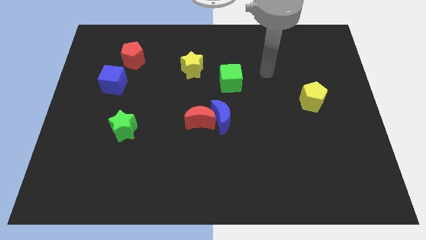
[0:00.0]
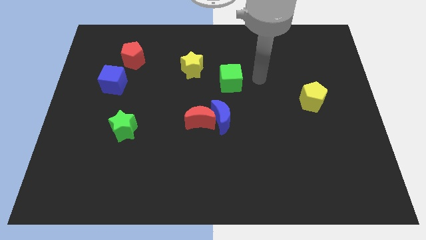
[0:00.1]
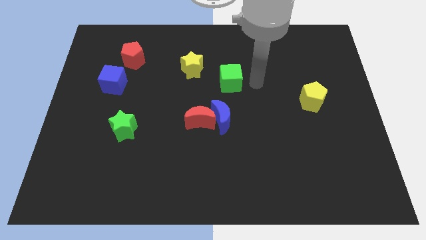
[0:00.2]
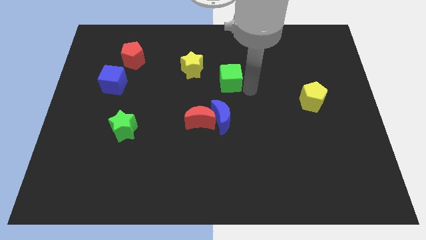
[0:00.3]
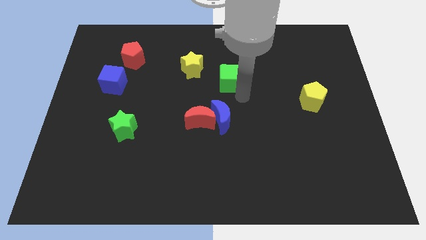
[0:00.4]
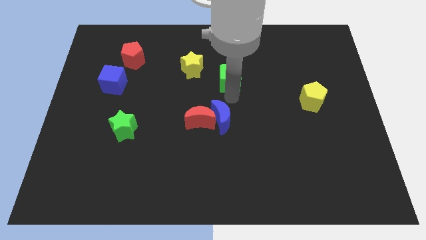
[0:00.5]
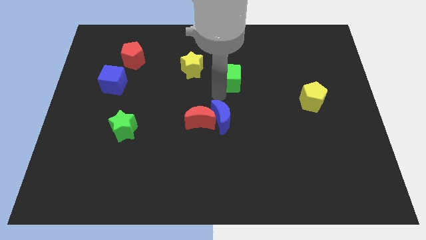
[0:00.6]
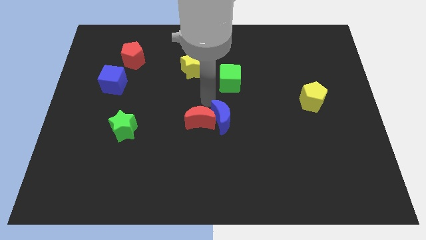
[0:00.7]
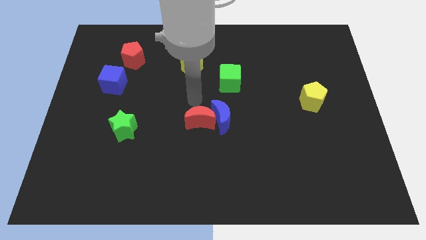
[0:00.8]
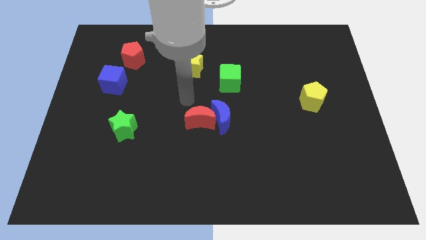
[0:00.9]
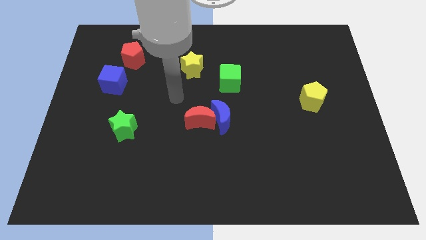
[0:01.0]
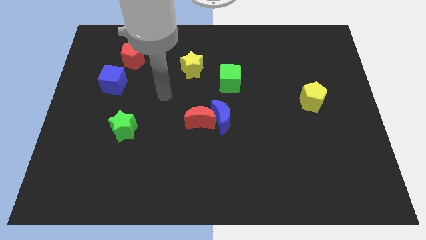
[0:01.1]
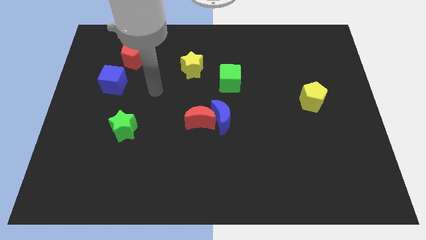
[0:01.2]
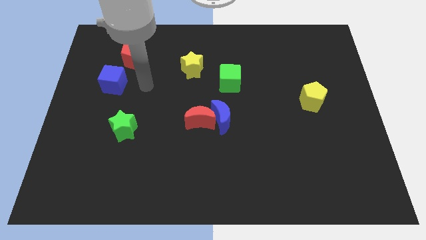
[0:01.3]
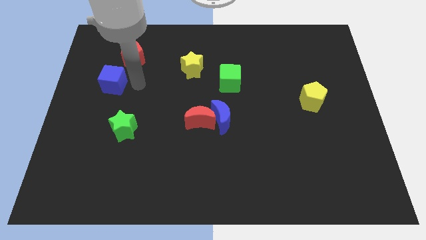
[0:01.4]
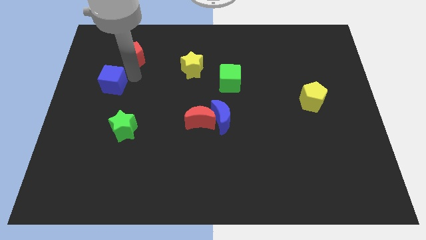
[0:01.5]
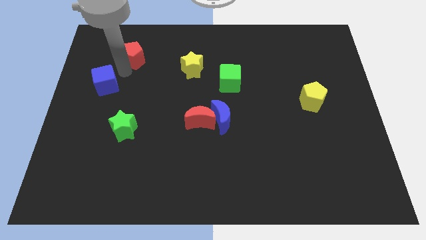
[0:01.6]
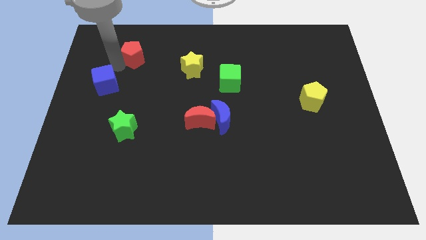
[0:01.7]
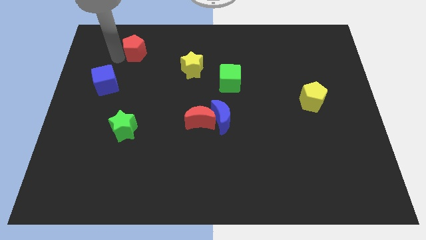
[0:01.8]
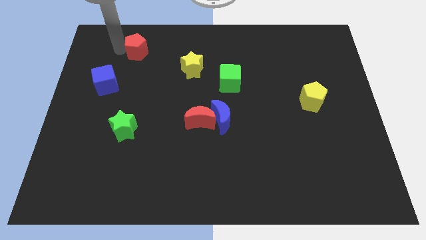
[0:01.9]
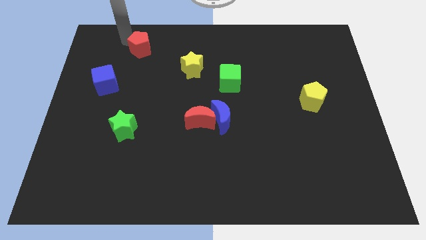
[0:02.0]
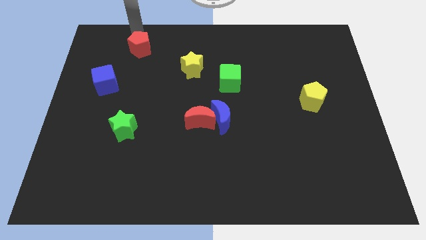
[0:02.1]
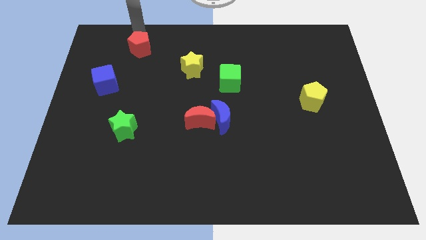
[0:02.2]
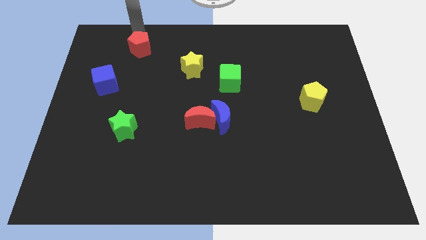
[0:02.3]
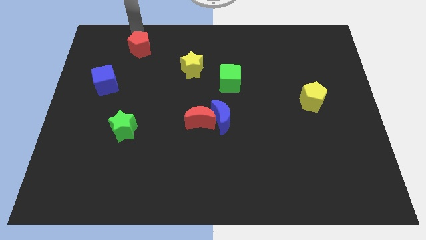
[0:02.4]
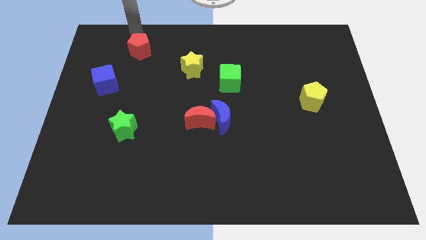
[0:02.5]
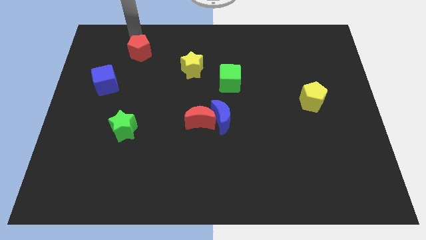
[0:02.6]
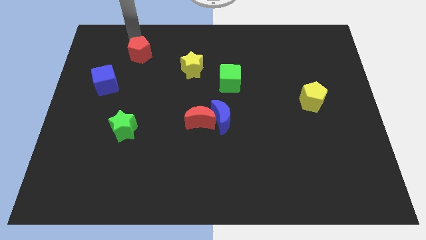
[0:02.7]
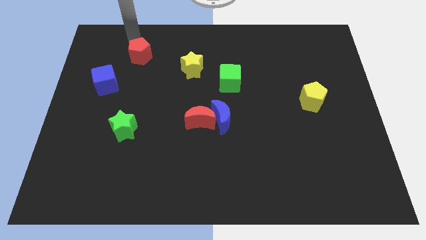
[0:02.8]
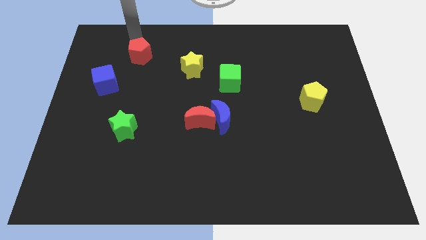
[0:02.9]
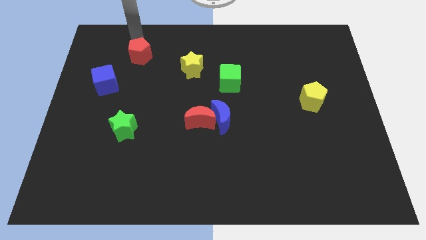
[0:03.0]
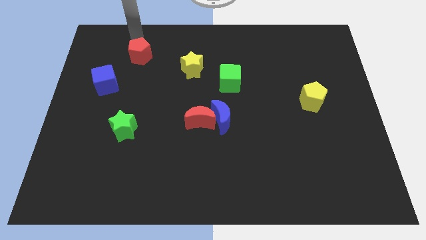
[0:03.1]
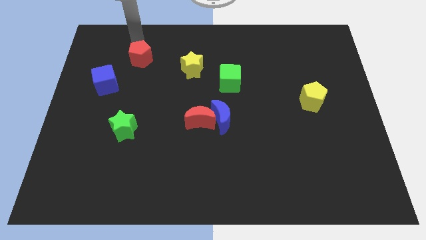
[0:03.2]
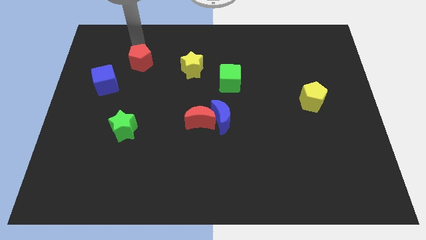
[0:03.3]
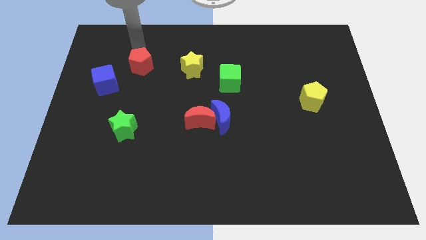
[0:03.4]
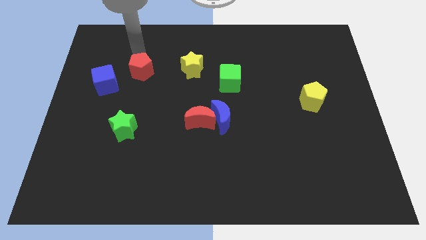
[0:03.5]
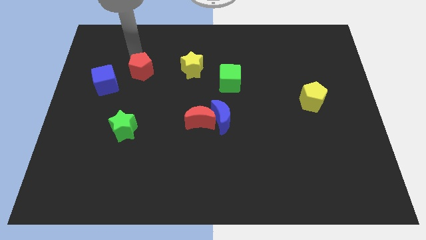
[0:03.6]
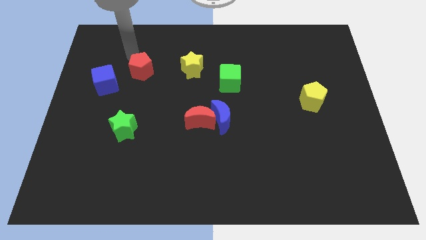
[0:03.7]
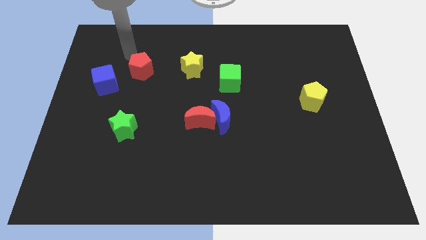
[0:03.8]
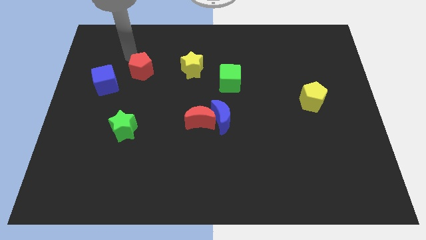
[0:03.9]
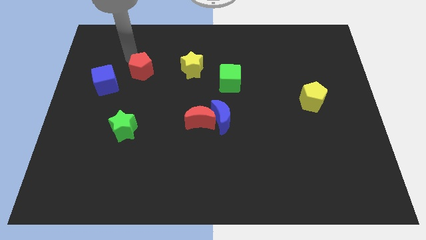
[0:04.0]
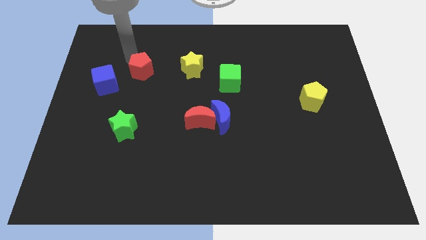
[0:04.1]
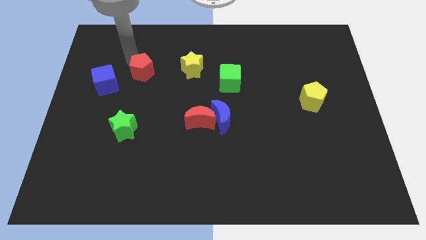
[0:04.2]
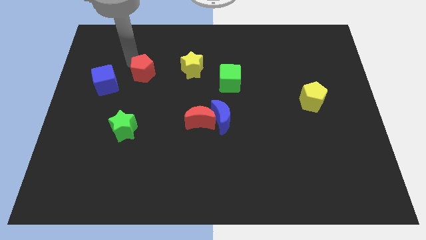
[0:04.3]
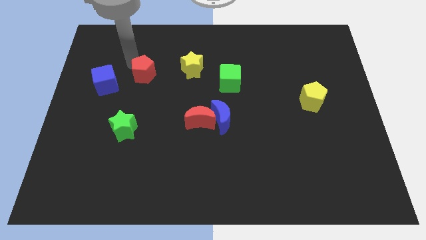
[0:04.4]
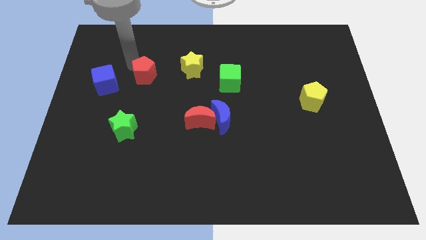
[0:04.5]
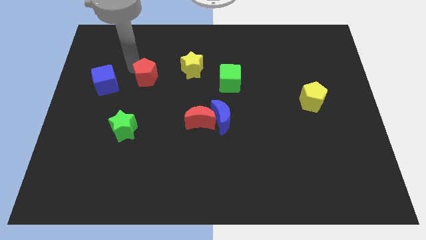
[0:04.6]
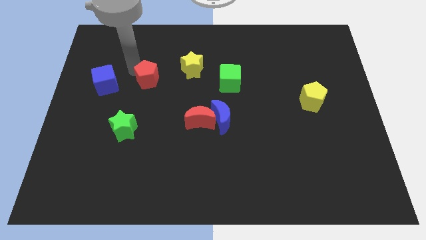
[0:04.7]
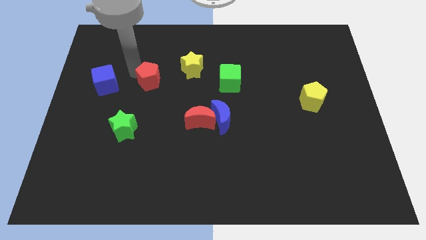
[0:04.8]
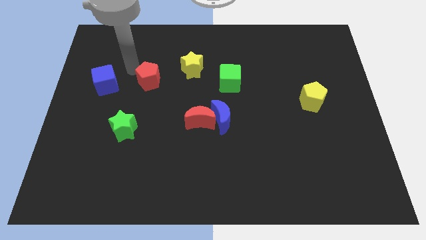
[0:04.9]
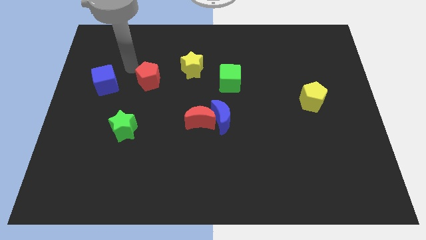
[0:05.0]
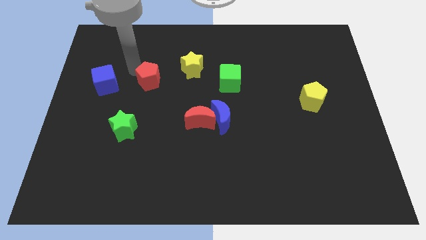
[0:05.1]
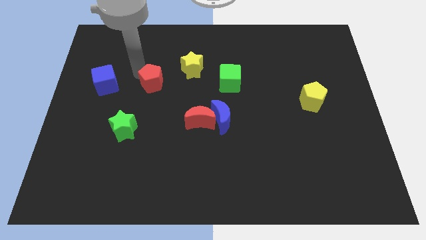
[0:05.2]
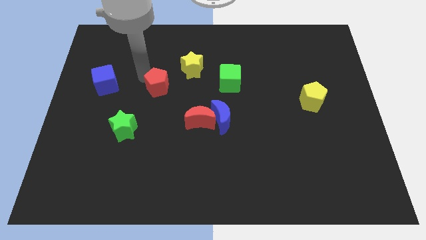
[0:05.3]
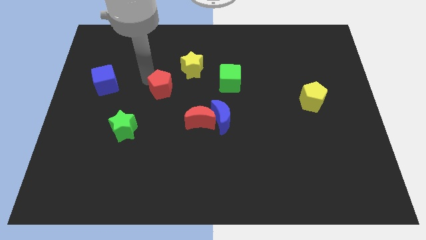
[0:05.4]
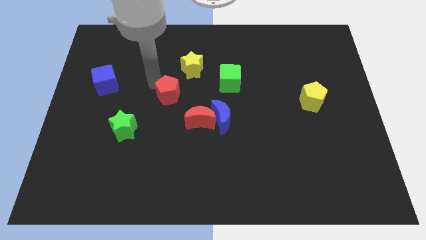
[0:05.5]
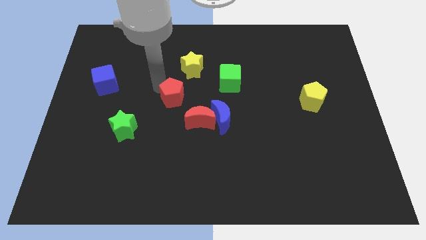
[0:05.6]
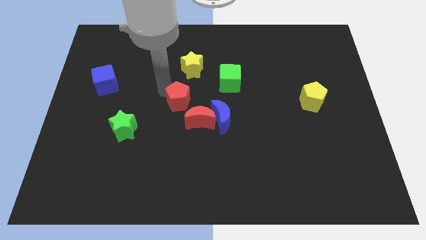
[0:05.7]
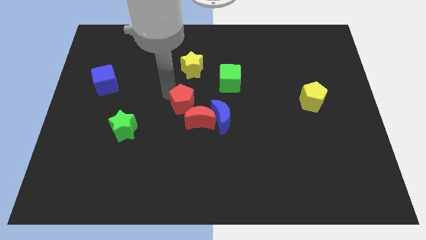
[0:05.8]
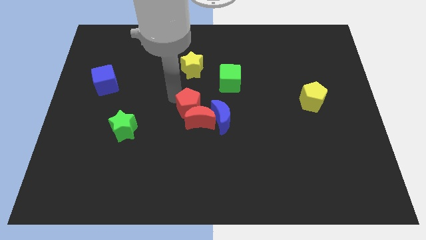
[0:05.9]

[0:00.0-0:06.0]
put the red pentagon to the red moon

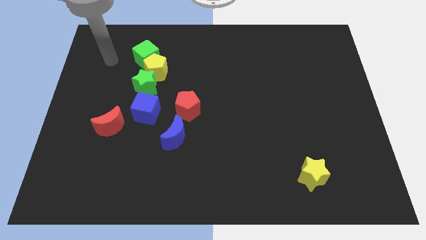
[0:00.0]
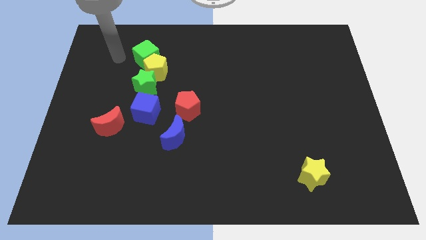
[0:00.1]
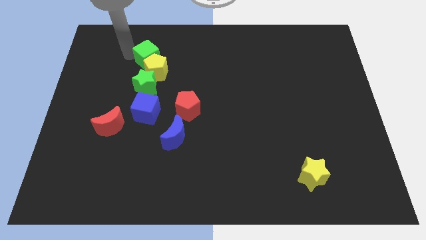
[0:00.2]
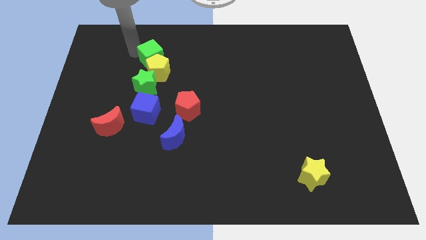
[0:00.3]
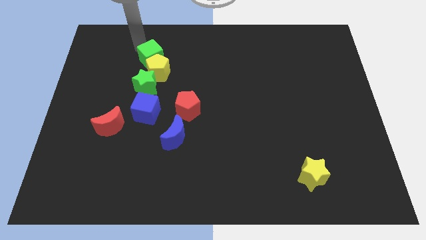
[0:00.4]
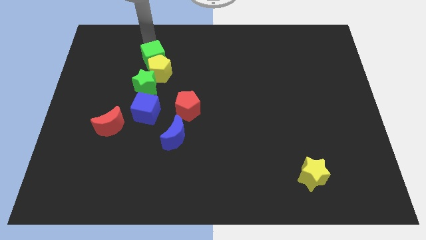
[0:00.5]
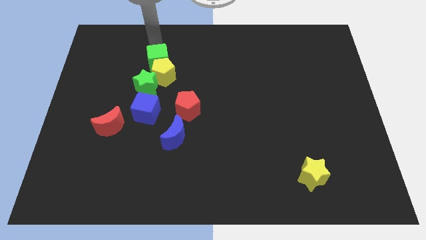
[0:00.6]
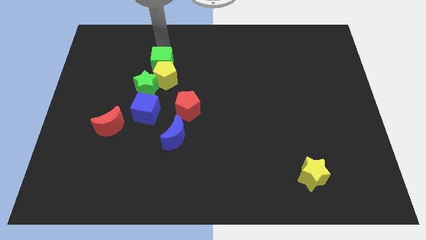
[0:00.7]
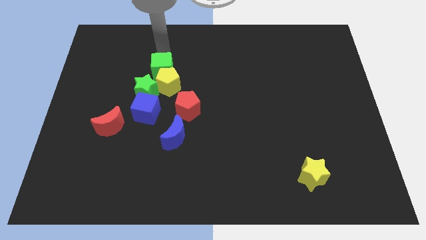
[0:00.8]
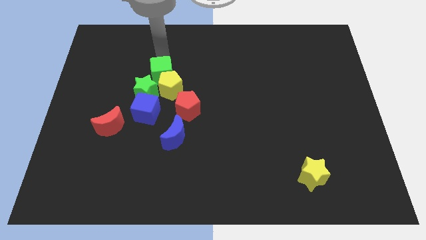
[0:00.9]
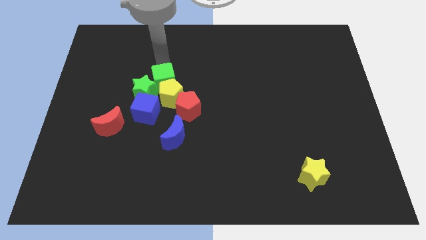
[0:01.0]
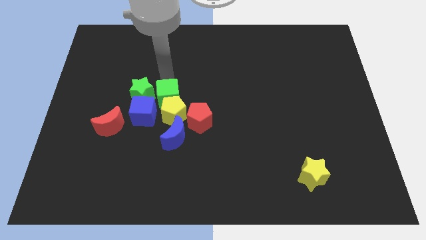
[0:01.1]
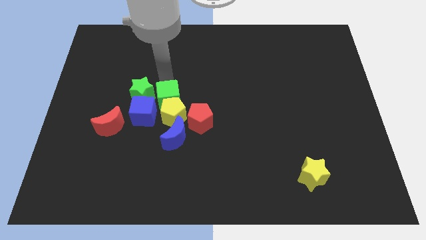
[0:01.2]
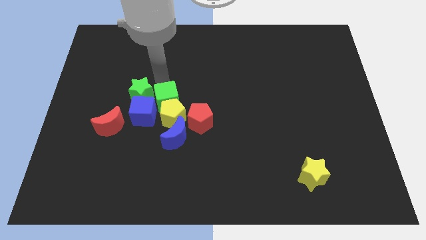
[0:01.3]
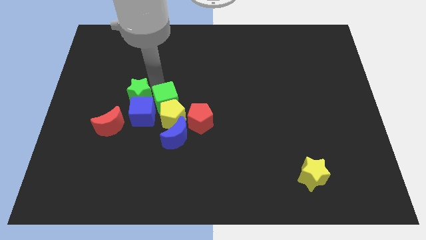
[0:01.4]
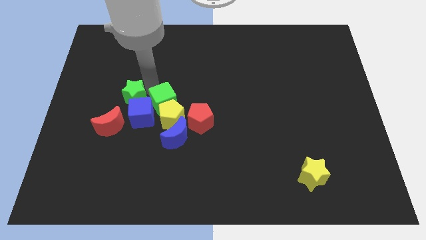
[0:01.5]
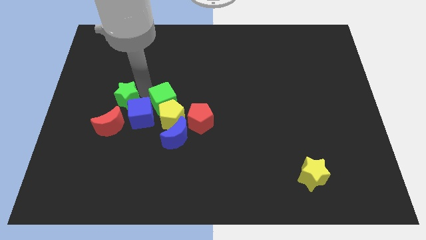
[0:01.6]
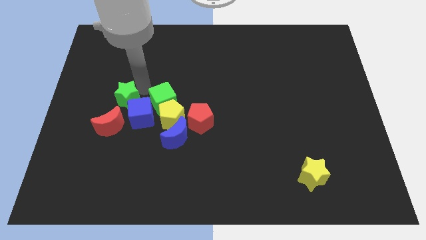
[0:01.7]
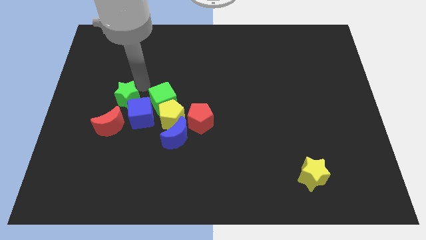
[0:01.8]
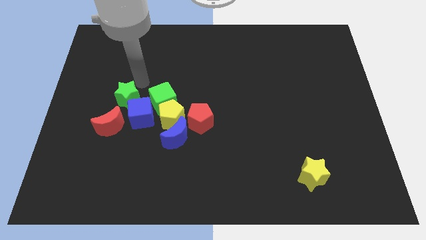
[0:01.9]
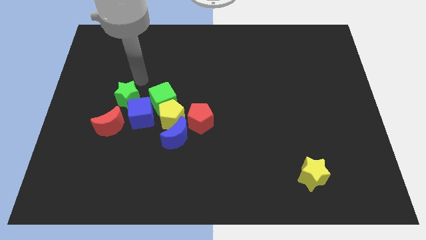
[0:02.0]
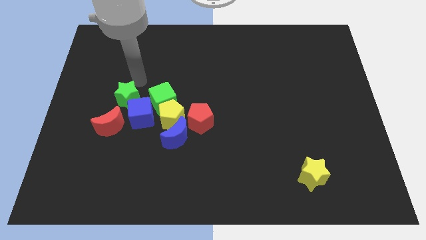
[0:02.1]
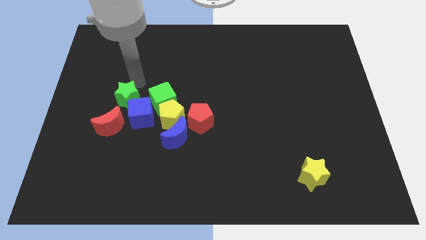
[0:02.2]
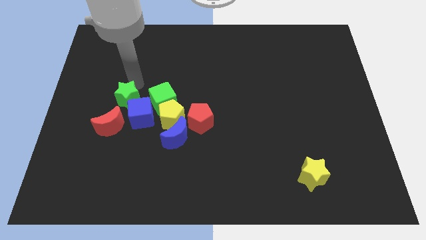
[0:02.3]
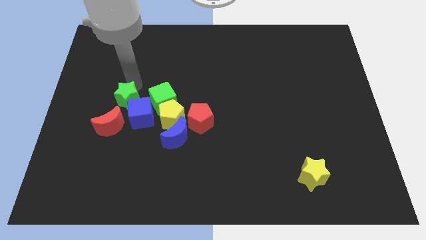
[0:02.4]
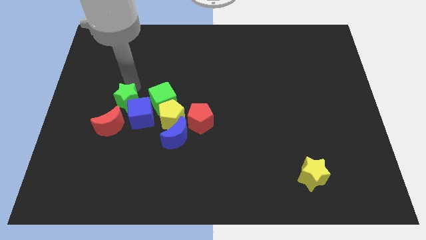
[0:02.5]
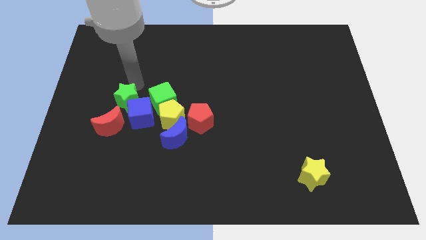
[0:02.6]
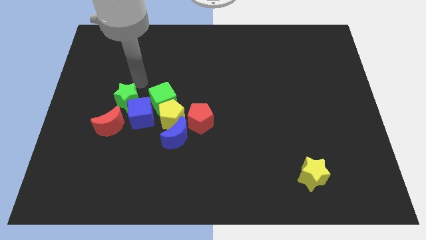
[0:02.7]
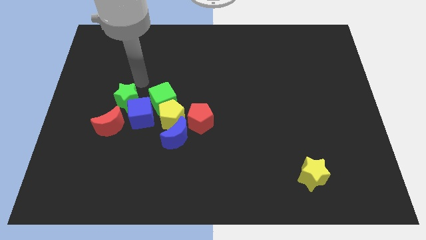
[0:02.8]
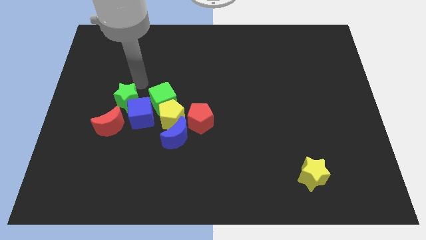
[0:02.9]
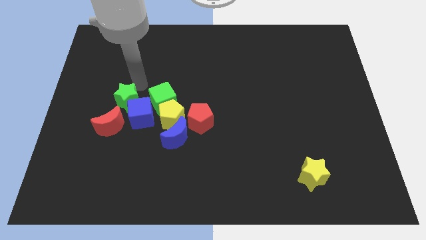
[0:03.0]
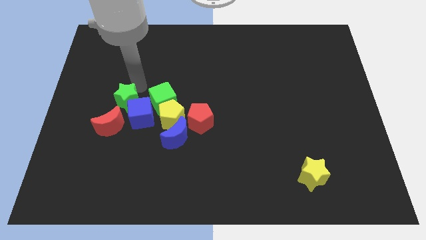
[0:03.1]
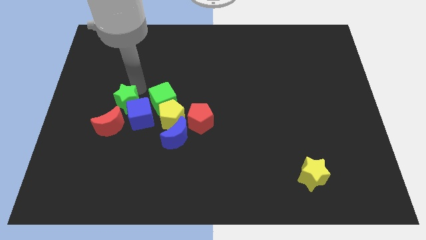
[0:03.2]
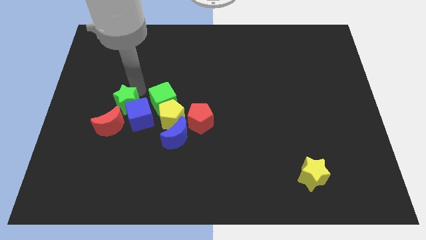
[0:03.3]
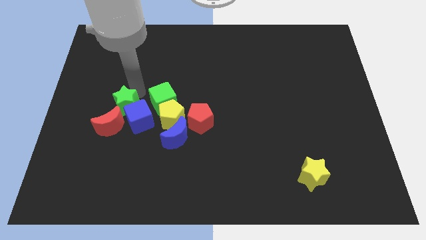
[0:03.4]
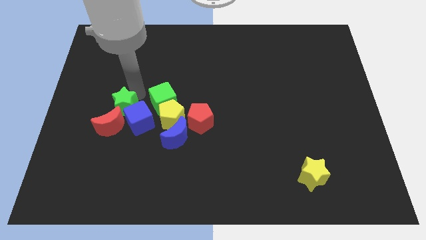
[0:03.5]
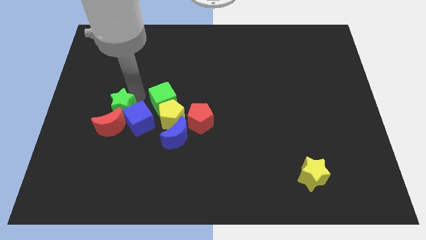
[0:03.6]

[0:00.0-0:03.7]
move the green star next to the red moon
